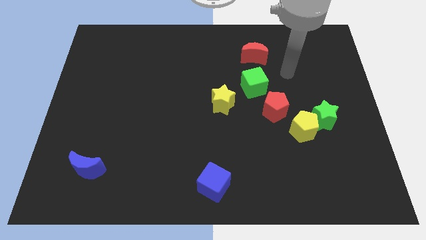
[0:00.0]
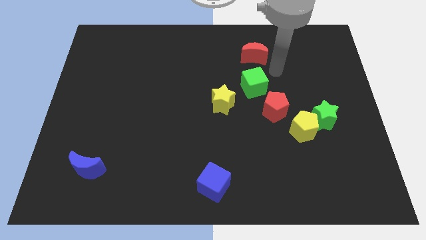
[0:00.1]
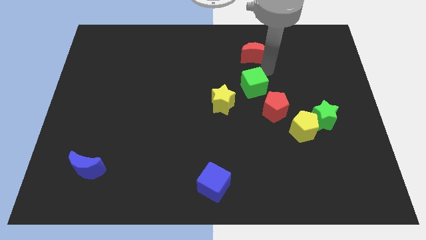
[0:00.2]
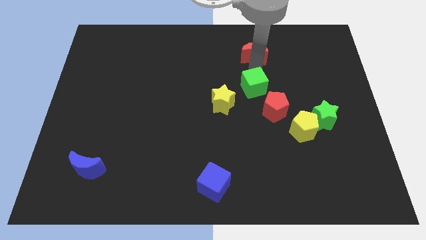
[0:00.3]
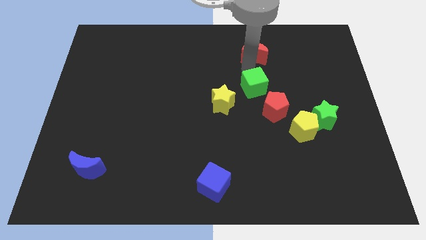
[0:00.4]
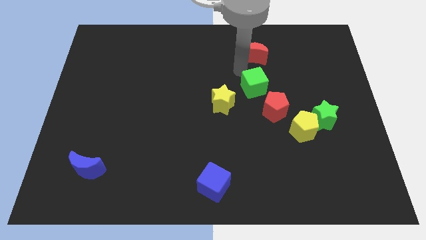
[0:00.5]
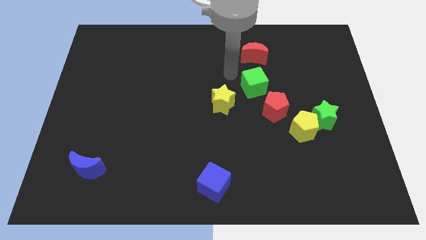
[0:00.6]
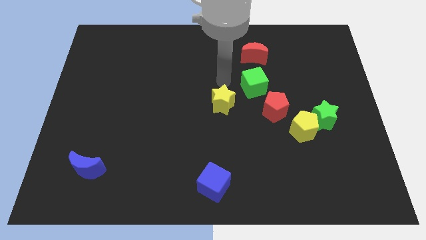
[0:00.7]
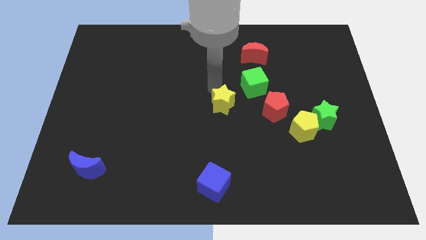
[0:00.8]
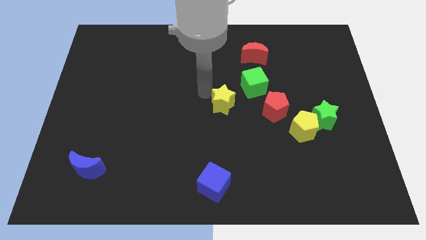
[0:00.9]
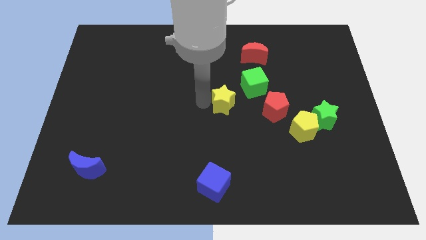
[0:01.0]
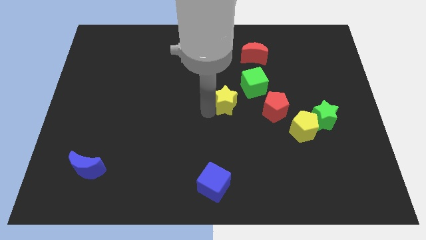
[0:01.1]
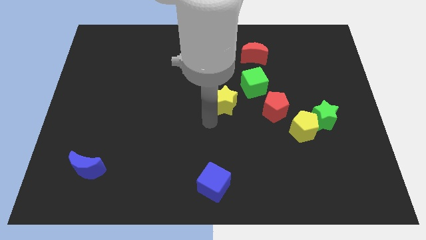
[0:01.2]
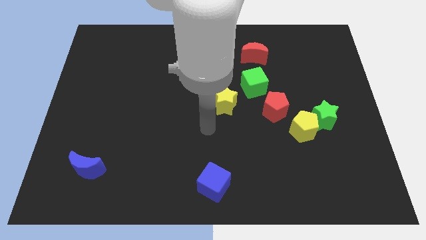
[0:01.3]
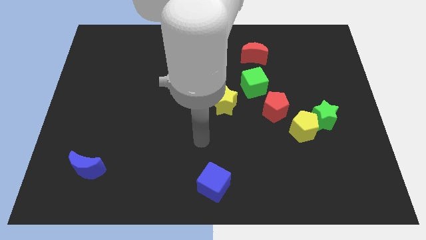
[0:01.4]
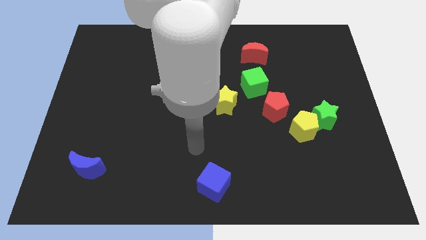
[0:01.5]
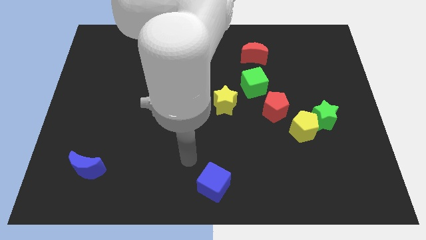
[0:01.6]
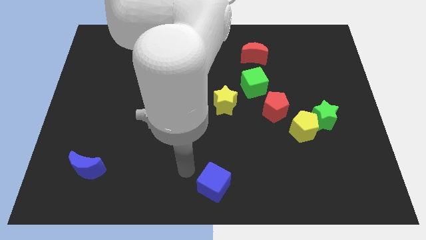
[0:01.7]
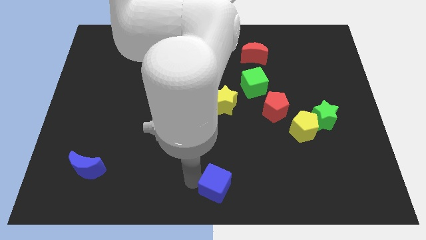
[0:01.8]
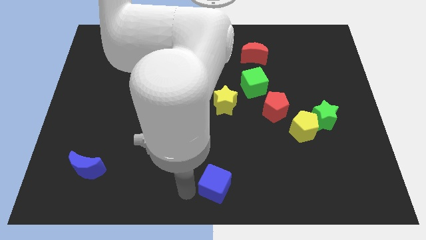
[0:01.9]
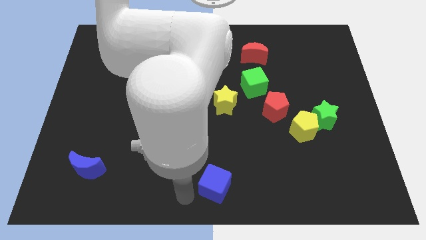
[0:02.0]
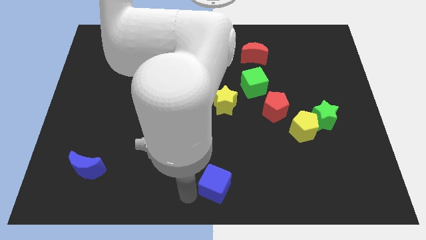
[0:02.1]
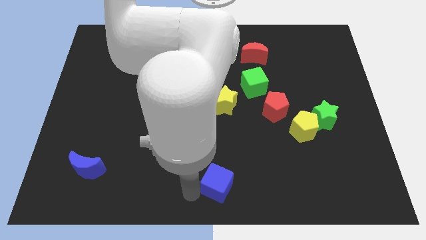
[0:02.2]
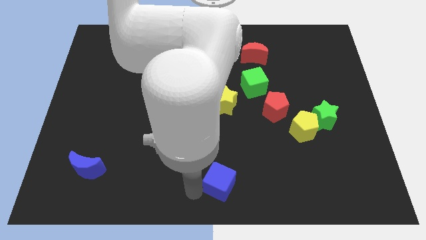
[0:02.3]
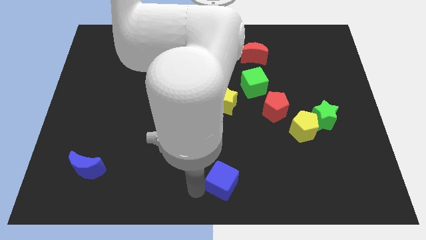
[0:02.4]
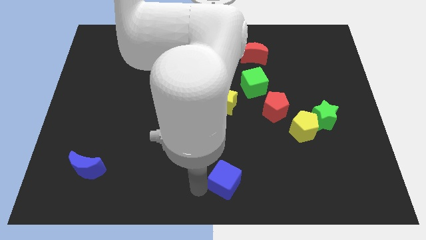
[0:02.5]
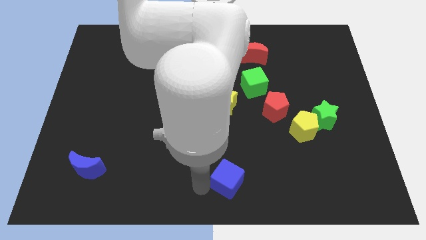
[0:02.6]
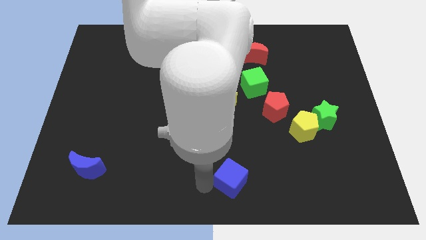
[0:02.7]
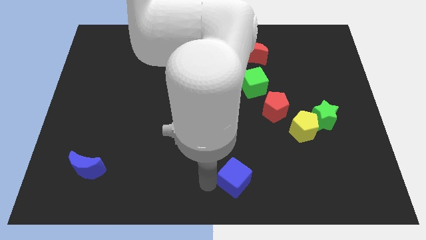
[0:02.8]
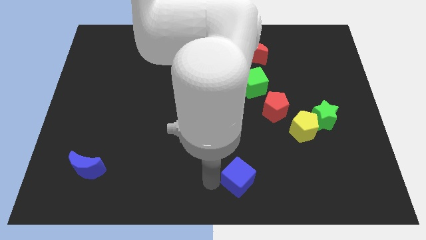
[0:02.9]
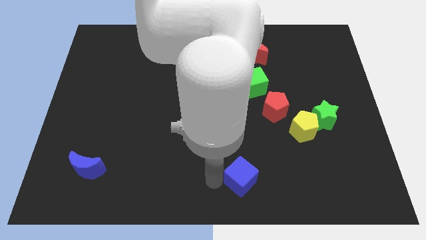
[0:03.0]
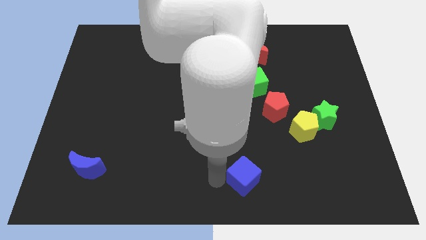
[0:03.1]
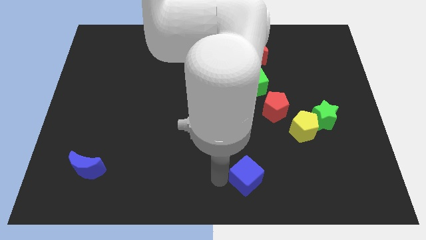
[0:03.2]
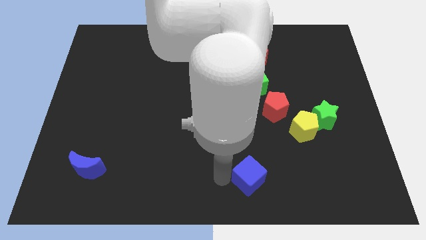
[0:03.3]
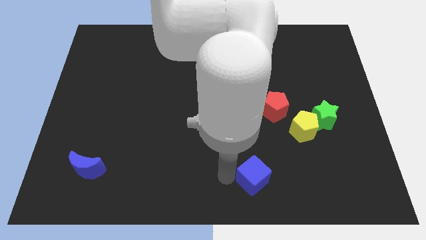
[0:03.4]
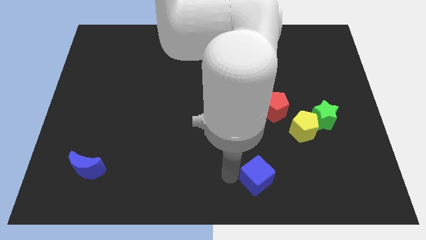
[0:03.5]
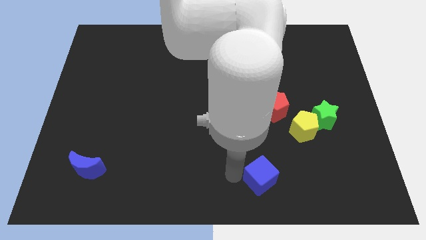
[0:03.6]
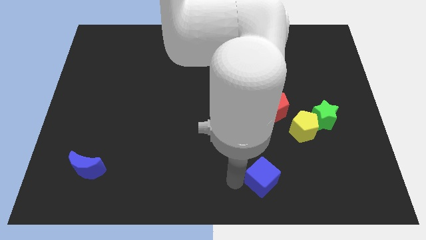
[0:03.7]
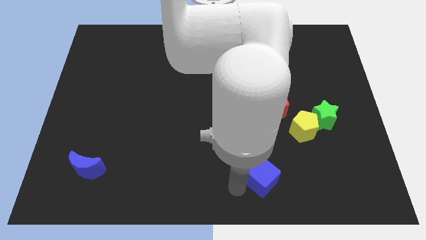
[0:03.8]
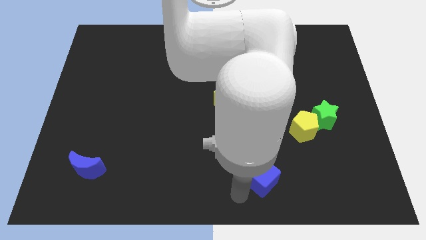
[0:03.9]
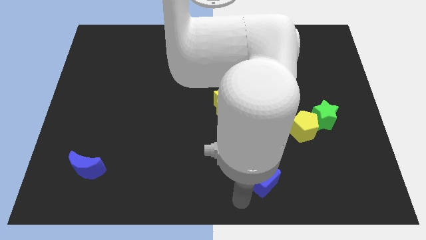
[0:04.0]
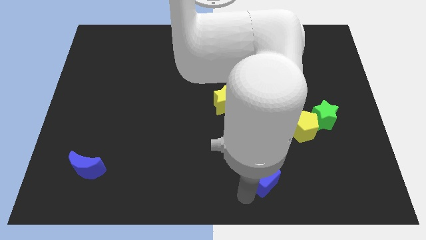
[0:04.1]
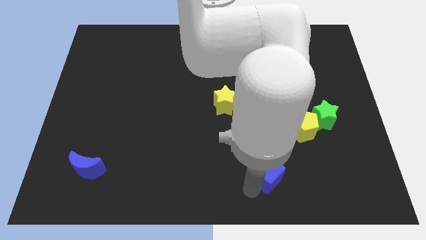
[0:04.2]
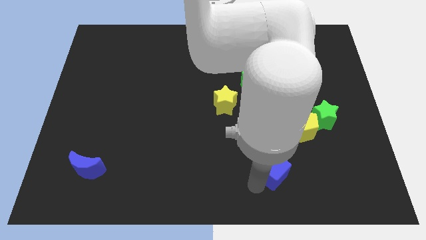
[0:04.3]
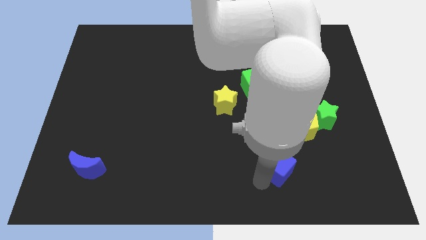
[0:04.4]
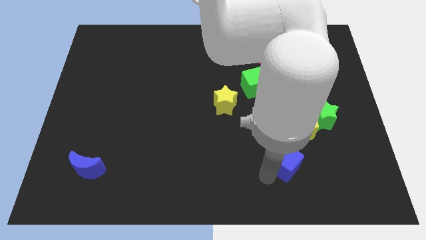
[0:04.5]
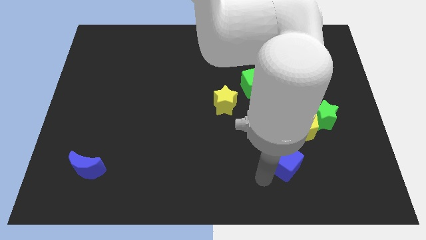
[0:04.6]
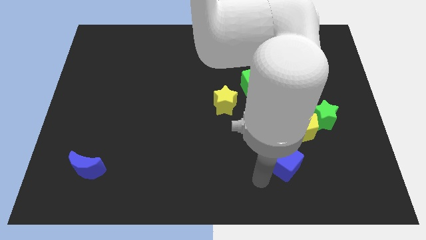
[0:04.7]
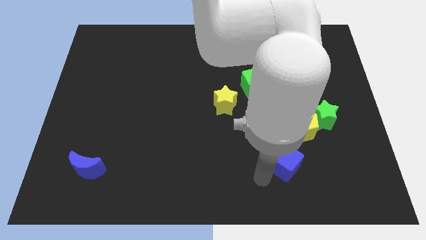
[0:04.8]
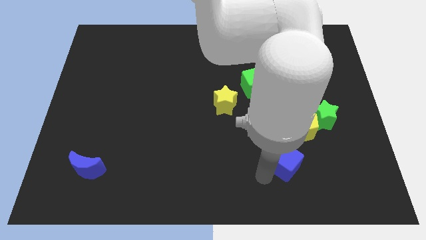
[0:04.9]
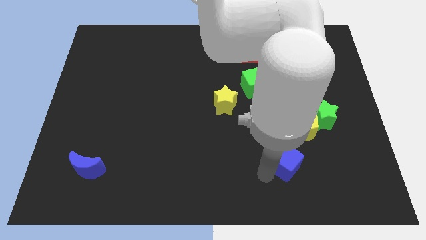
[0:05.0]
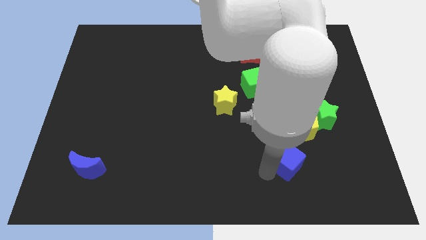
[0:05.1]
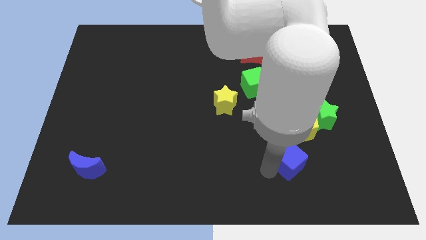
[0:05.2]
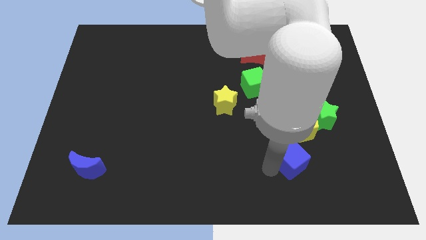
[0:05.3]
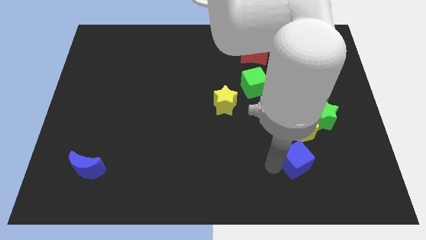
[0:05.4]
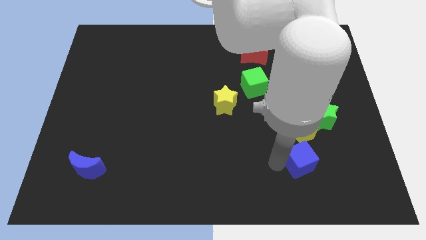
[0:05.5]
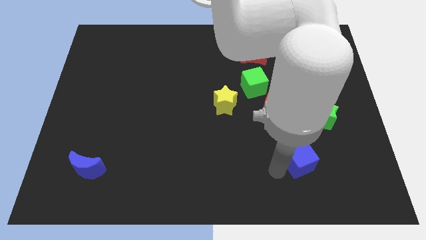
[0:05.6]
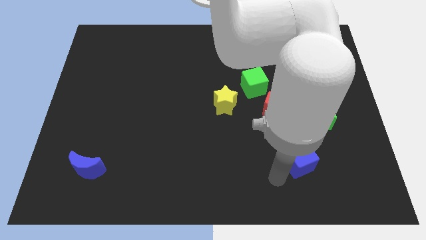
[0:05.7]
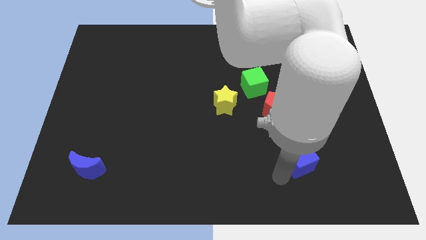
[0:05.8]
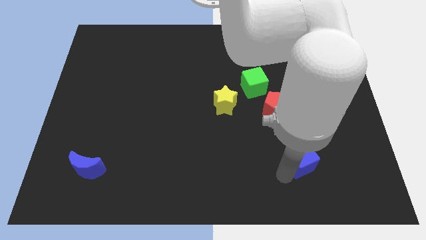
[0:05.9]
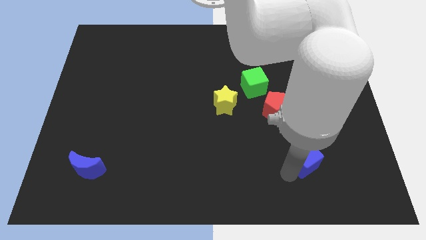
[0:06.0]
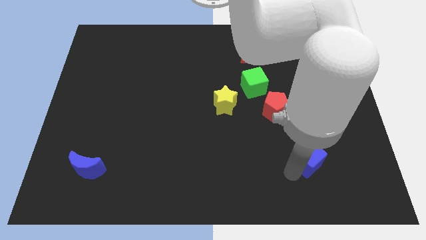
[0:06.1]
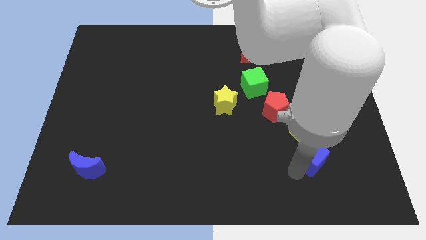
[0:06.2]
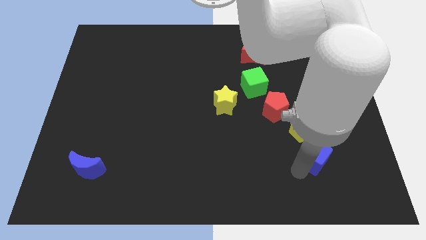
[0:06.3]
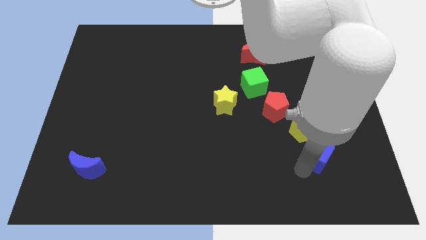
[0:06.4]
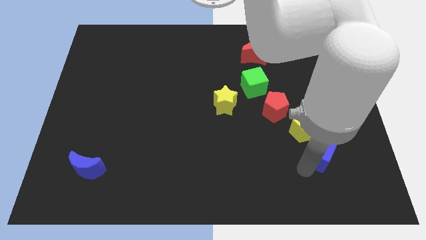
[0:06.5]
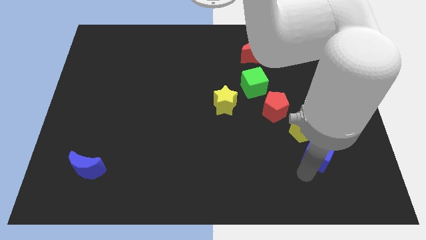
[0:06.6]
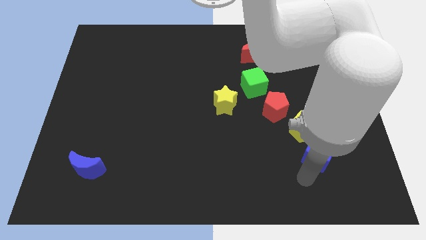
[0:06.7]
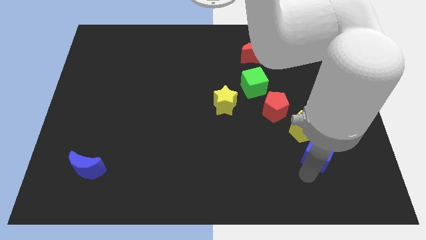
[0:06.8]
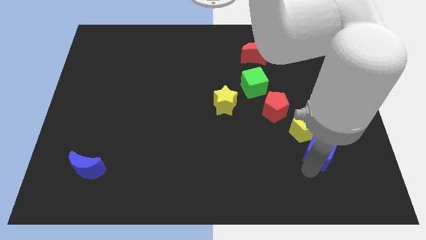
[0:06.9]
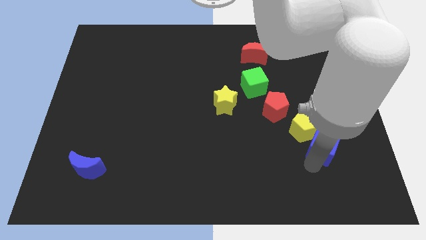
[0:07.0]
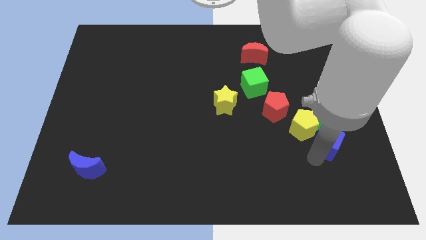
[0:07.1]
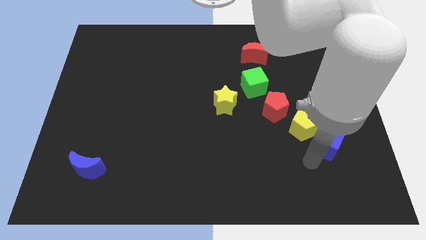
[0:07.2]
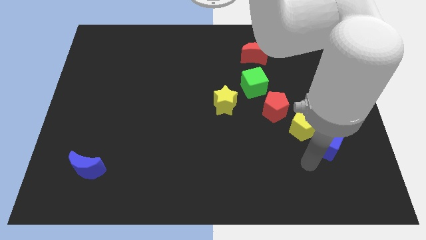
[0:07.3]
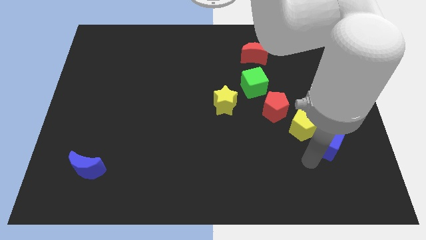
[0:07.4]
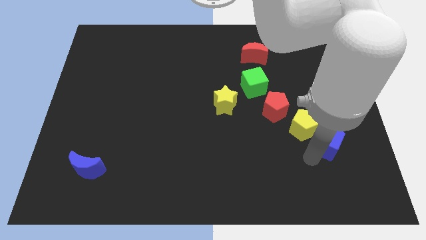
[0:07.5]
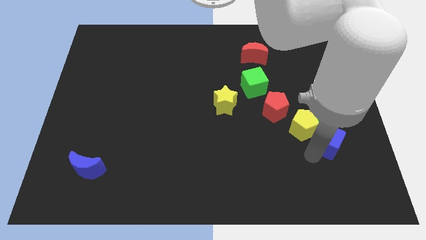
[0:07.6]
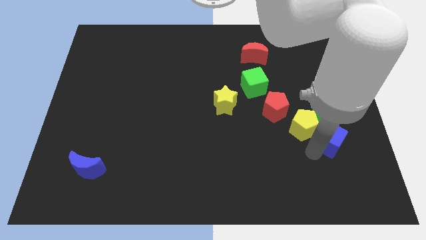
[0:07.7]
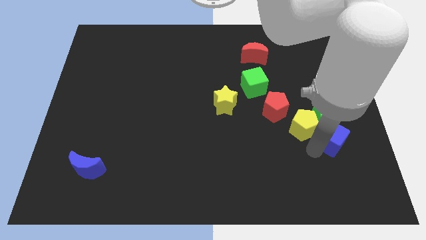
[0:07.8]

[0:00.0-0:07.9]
slide the blue cube upwards and right diagonally
